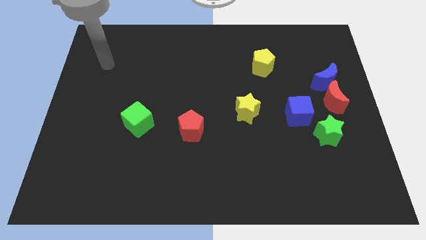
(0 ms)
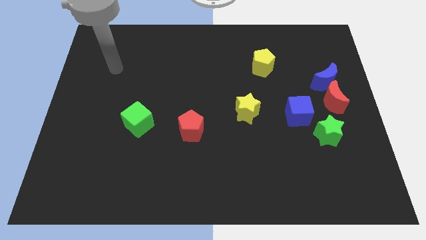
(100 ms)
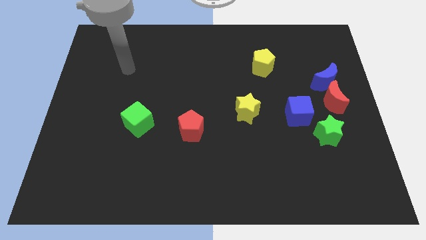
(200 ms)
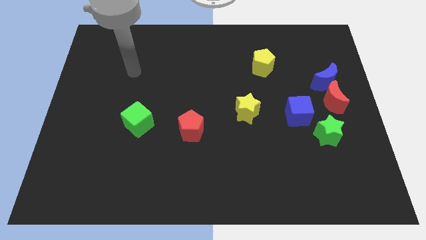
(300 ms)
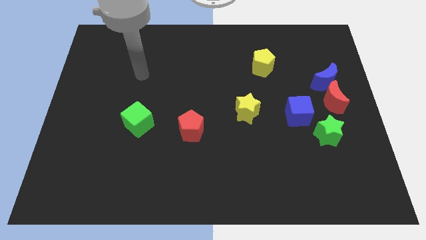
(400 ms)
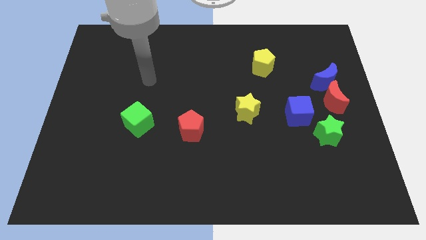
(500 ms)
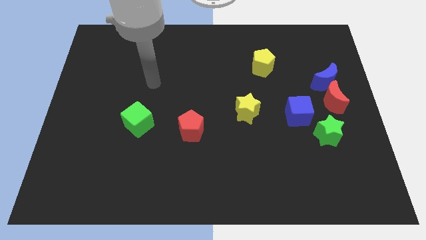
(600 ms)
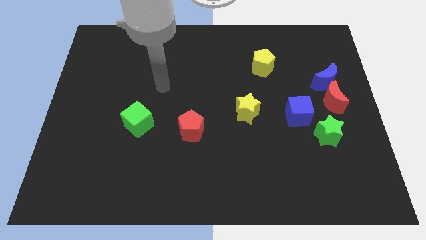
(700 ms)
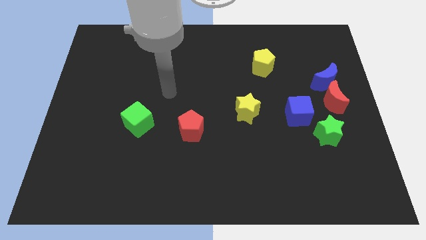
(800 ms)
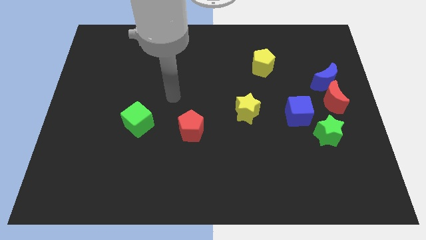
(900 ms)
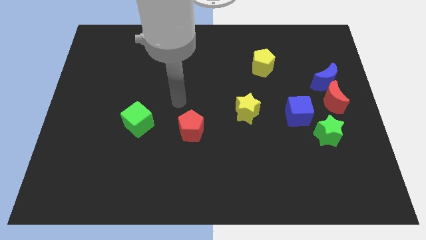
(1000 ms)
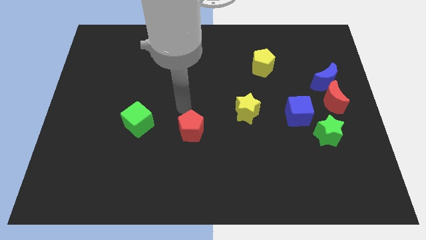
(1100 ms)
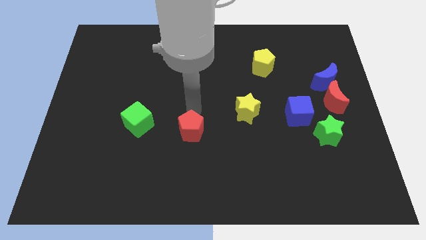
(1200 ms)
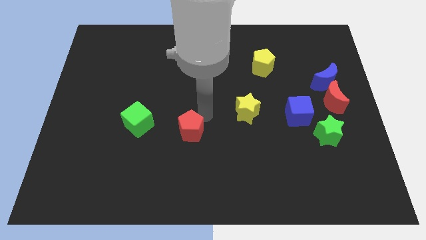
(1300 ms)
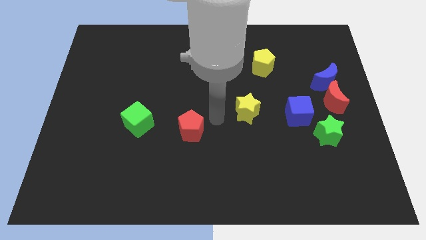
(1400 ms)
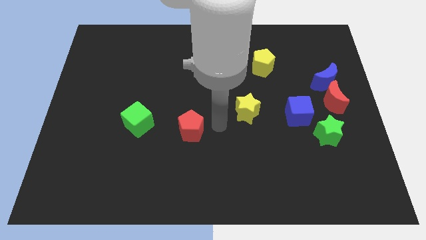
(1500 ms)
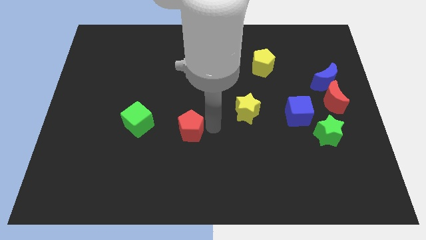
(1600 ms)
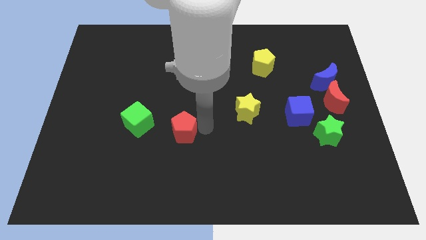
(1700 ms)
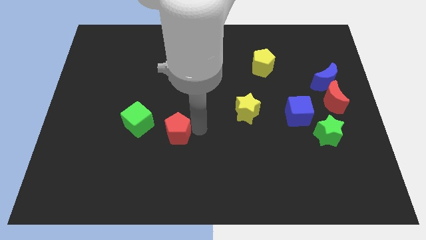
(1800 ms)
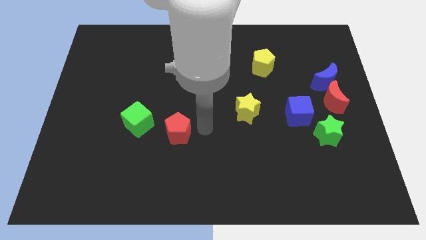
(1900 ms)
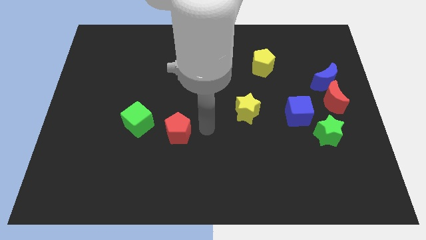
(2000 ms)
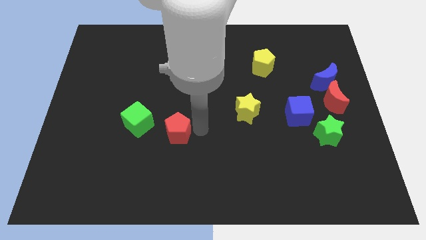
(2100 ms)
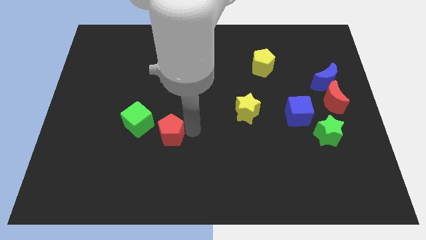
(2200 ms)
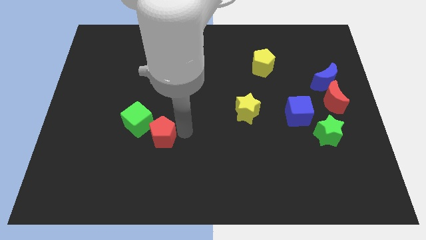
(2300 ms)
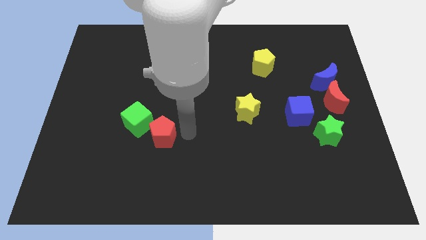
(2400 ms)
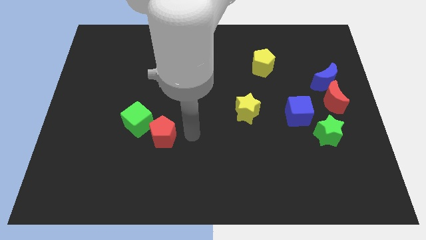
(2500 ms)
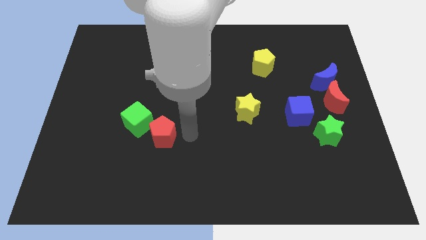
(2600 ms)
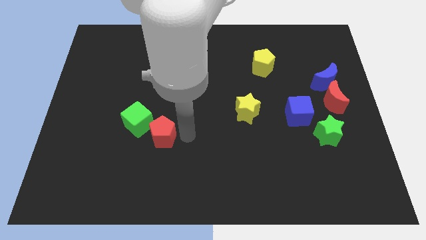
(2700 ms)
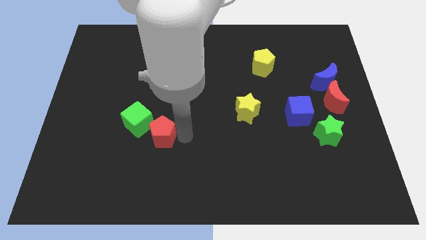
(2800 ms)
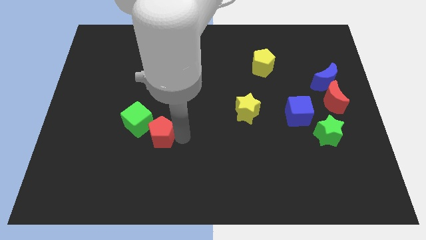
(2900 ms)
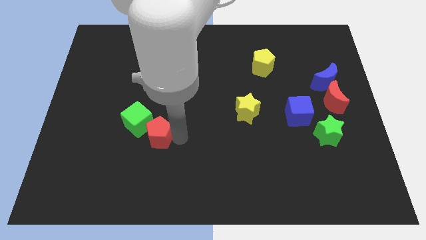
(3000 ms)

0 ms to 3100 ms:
slide the red pentagon left a bit

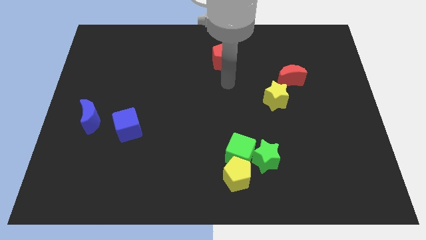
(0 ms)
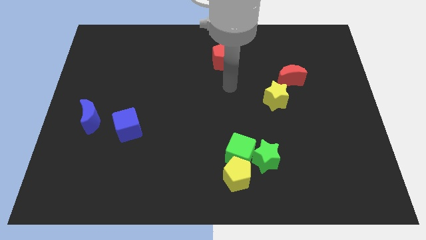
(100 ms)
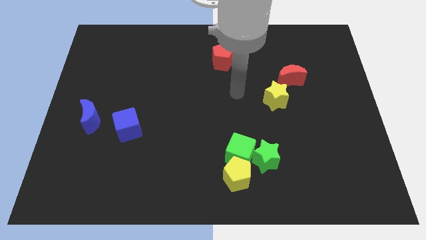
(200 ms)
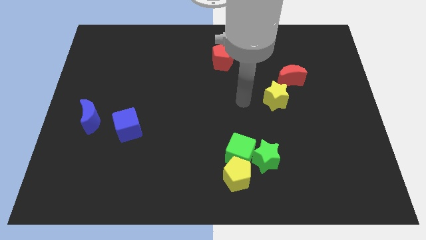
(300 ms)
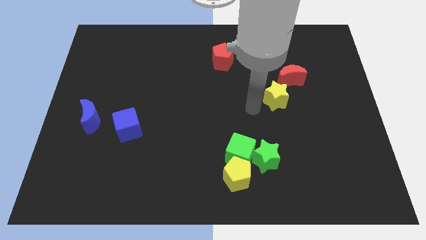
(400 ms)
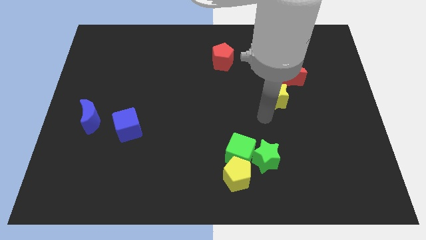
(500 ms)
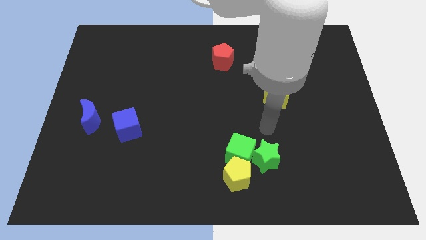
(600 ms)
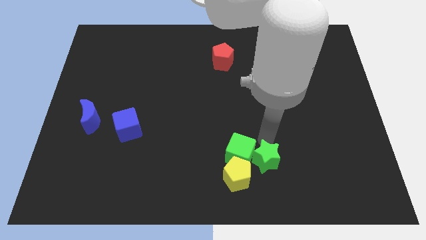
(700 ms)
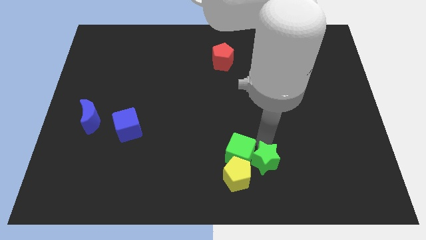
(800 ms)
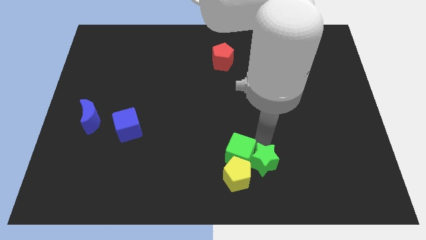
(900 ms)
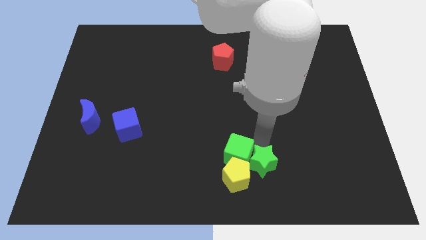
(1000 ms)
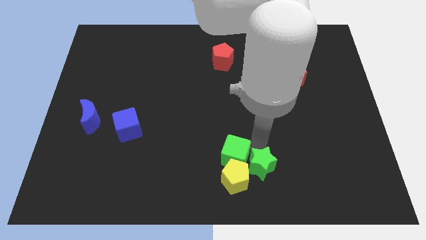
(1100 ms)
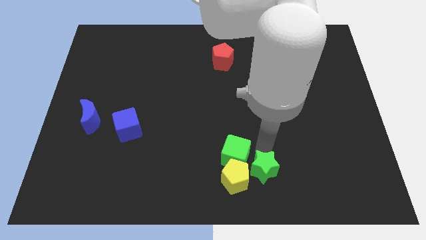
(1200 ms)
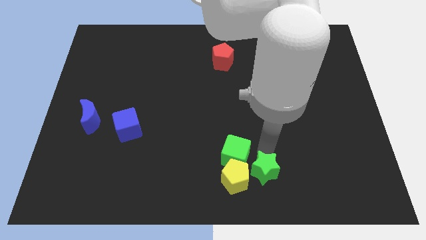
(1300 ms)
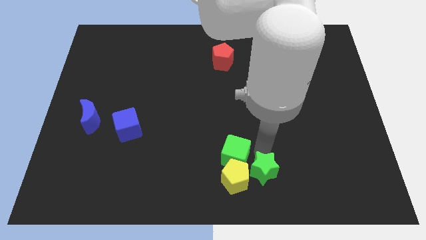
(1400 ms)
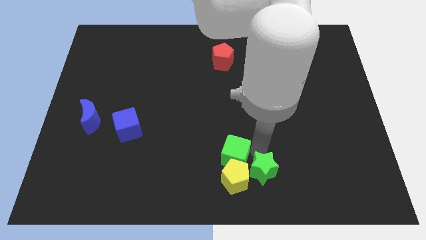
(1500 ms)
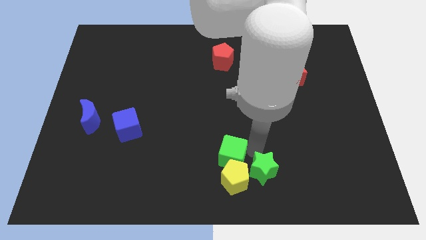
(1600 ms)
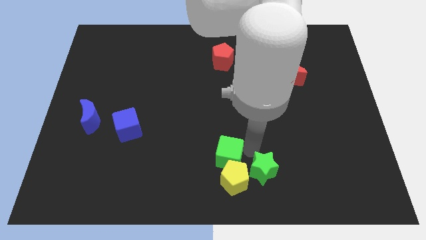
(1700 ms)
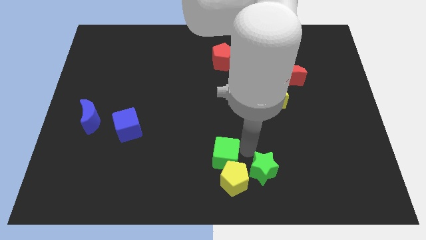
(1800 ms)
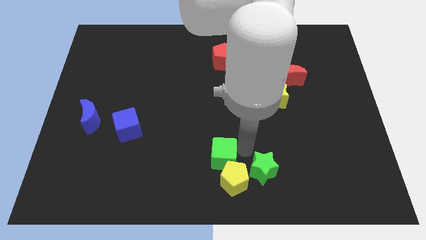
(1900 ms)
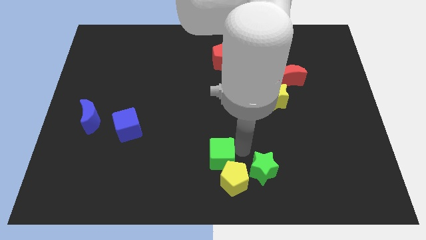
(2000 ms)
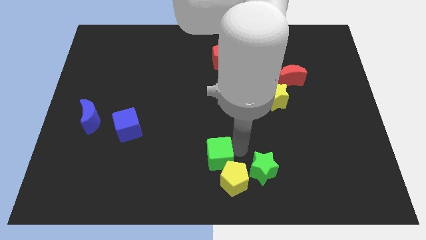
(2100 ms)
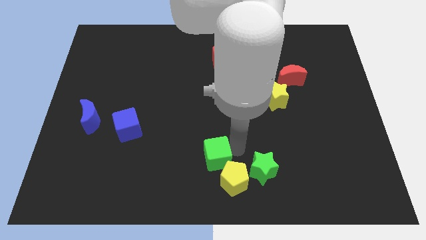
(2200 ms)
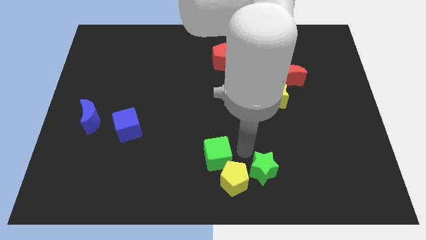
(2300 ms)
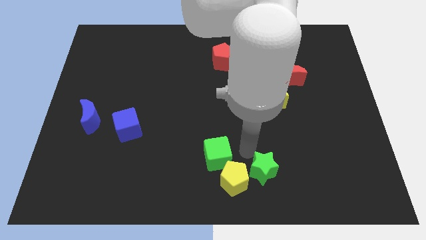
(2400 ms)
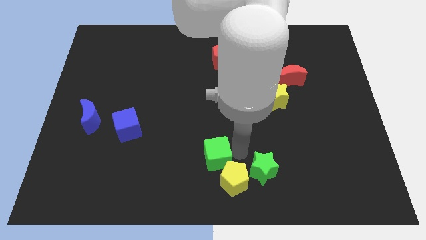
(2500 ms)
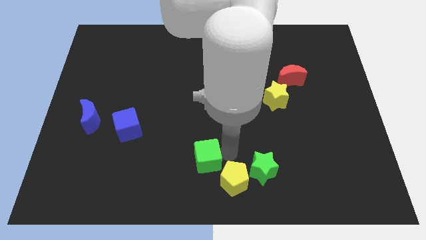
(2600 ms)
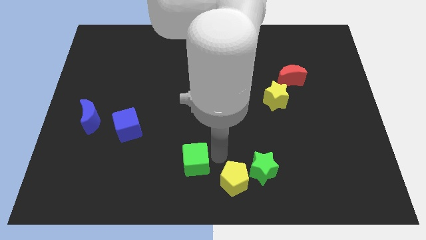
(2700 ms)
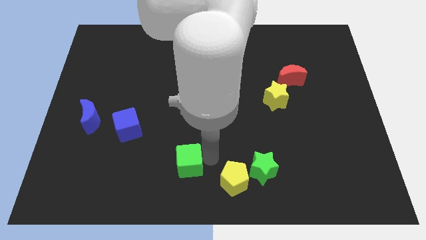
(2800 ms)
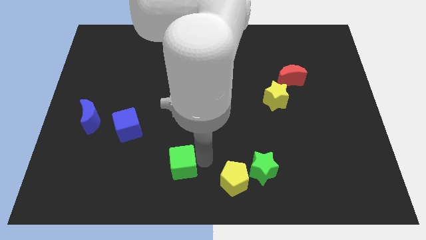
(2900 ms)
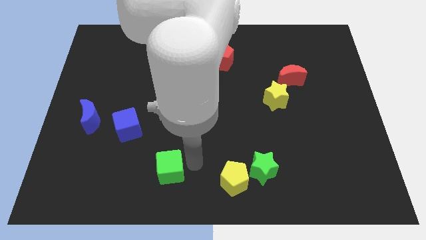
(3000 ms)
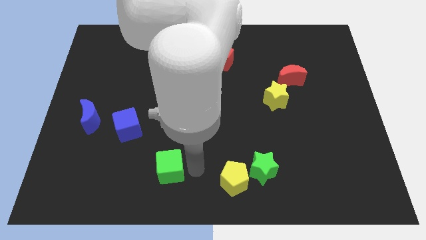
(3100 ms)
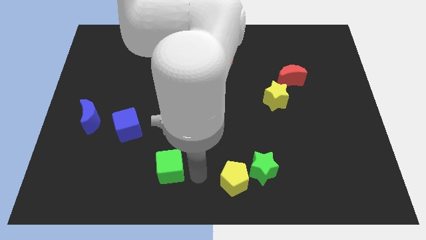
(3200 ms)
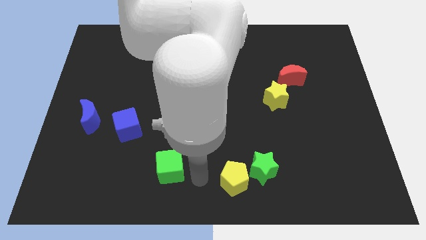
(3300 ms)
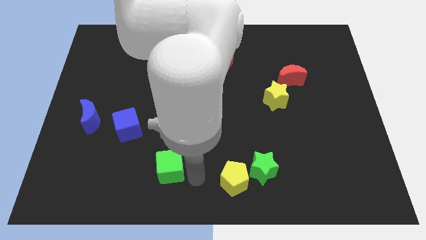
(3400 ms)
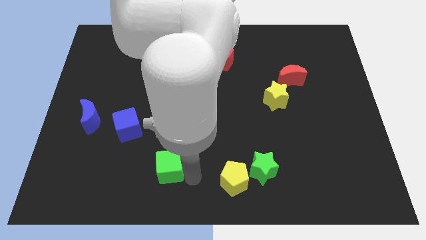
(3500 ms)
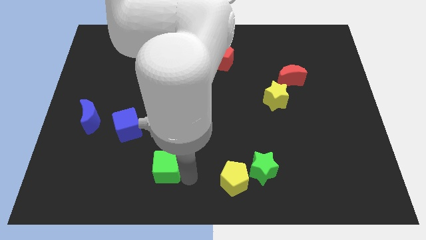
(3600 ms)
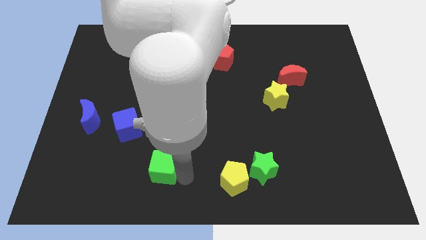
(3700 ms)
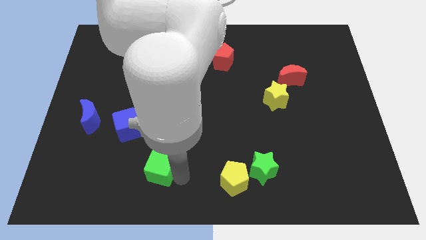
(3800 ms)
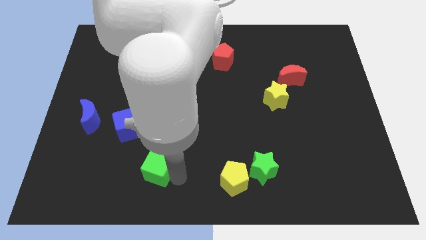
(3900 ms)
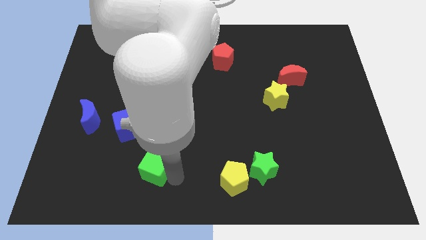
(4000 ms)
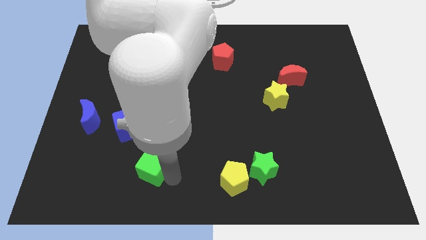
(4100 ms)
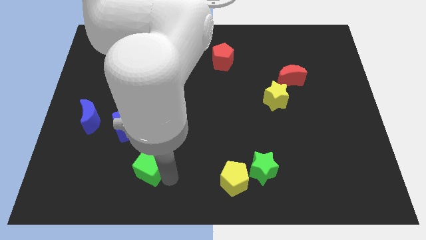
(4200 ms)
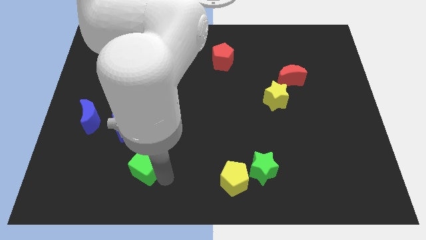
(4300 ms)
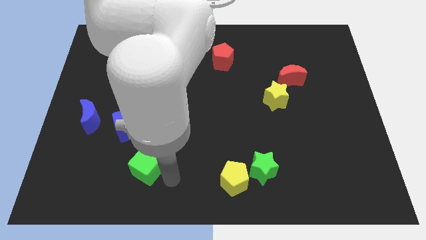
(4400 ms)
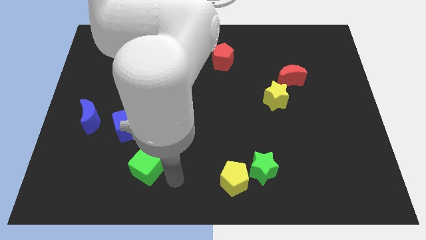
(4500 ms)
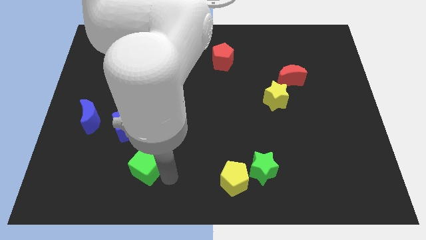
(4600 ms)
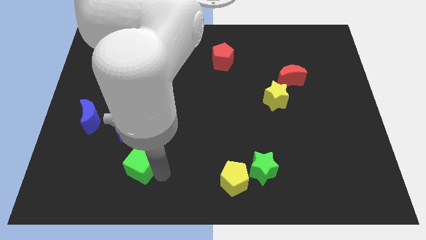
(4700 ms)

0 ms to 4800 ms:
move the green cube left

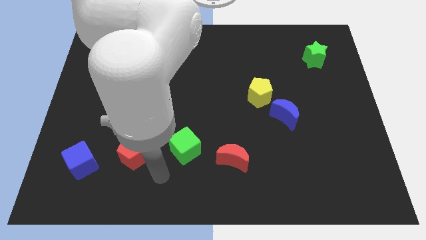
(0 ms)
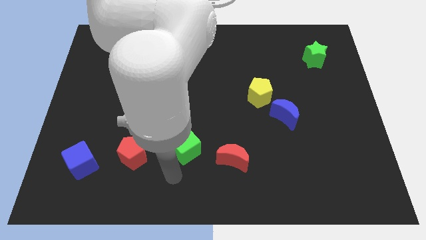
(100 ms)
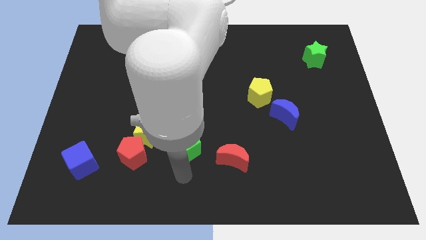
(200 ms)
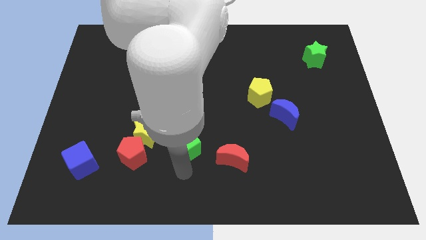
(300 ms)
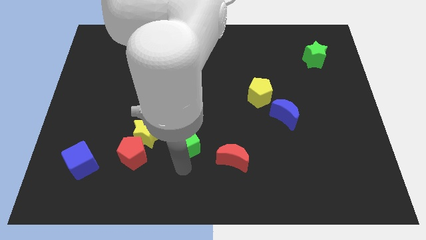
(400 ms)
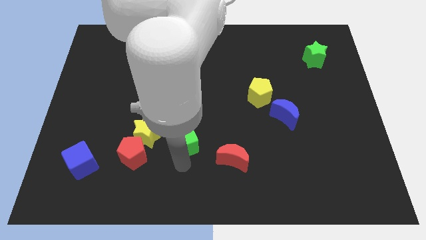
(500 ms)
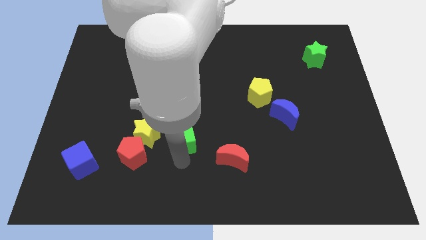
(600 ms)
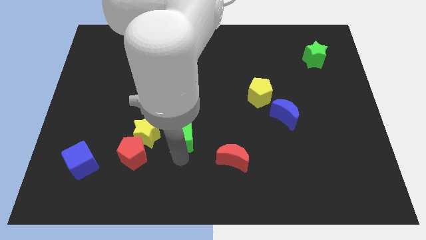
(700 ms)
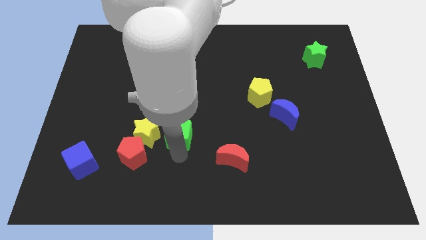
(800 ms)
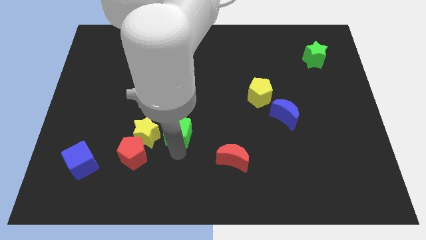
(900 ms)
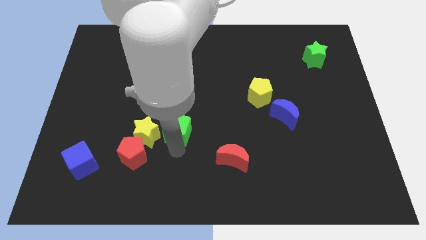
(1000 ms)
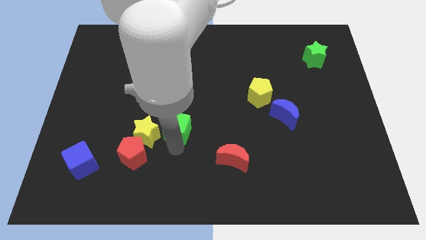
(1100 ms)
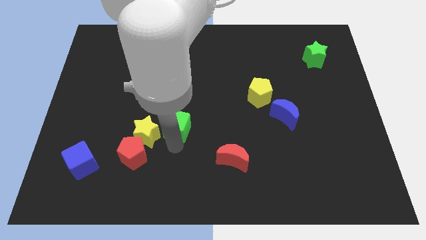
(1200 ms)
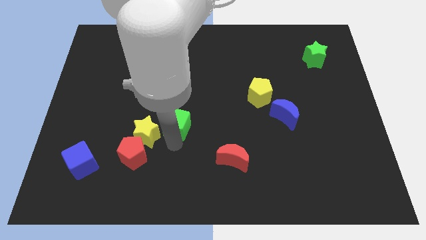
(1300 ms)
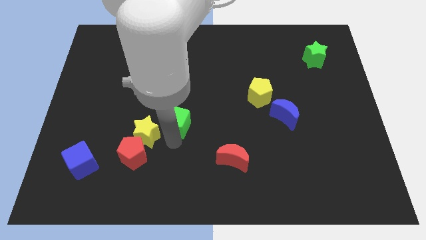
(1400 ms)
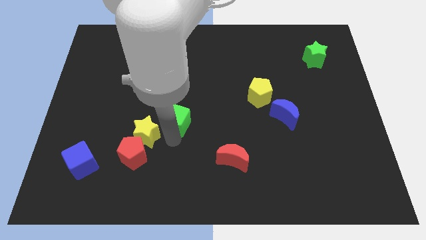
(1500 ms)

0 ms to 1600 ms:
slightly push the green cube upwards
